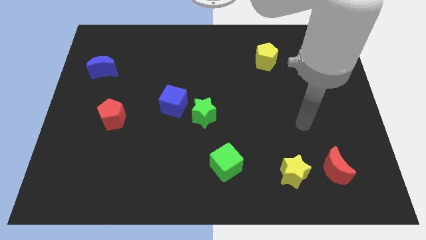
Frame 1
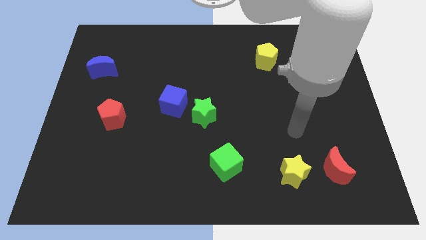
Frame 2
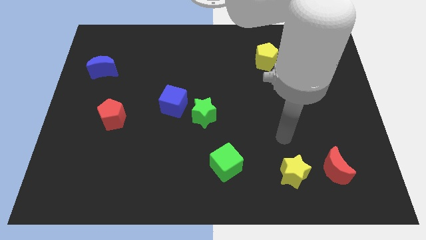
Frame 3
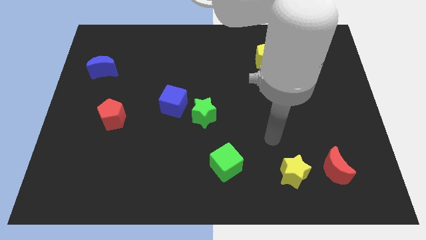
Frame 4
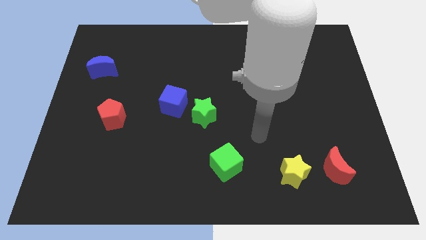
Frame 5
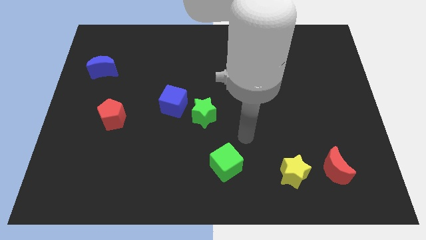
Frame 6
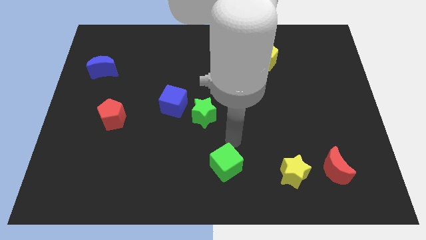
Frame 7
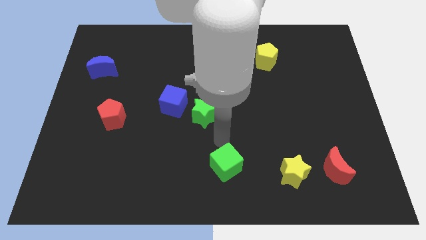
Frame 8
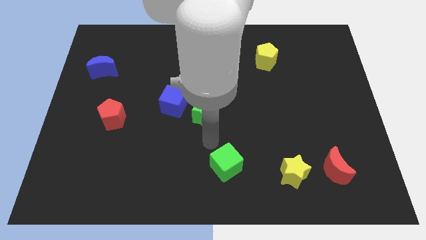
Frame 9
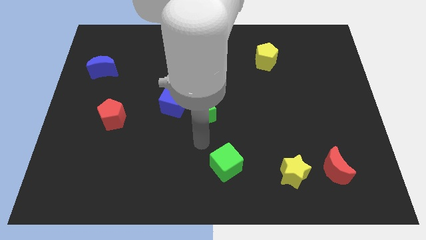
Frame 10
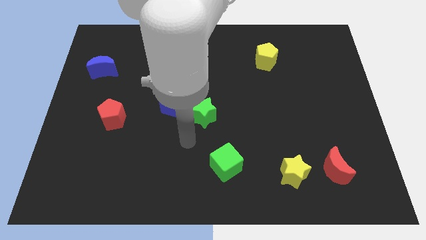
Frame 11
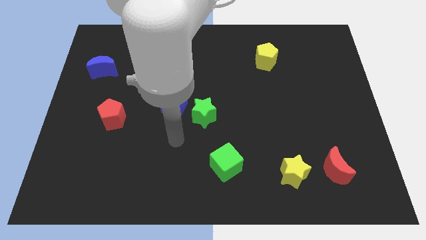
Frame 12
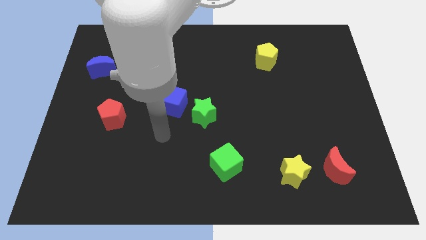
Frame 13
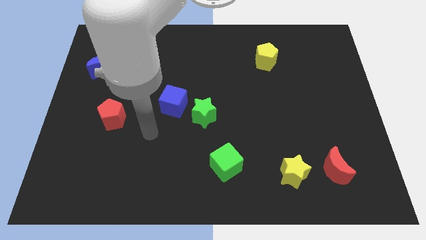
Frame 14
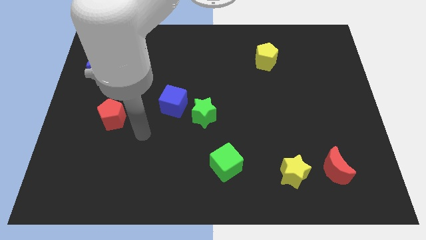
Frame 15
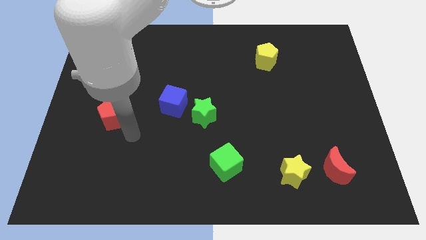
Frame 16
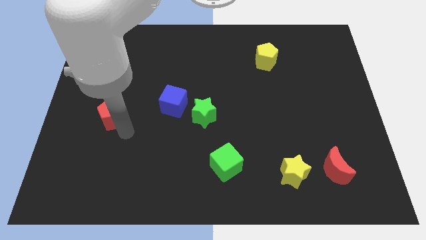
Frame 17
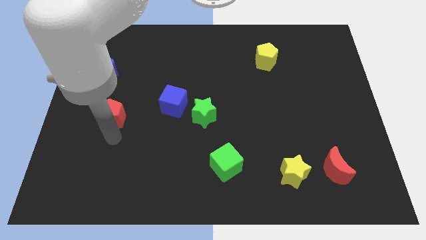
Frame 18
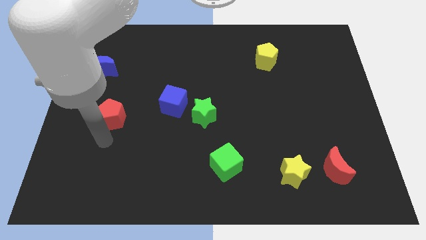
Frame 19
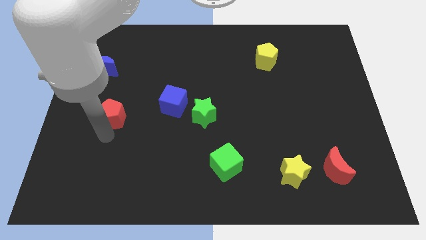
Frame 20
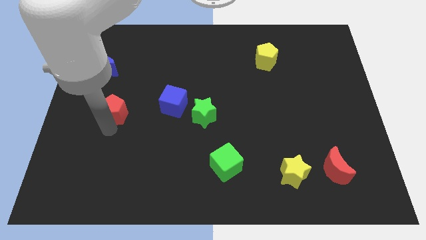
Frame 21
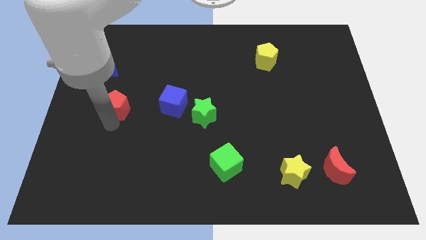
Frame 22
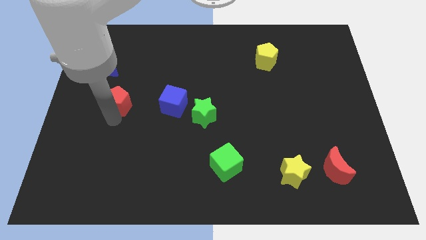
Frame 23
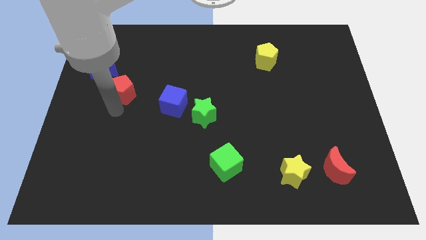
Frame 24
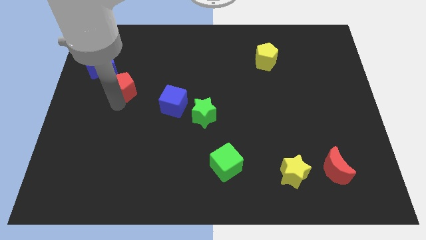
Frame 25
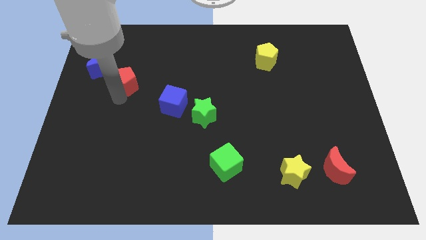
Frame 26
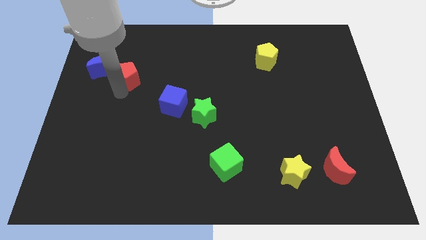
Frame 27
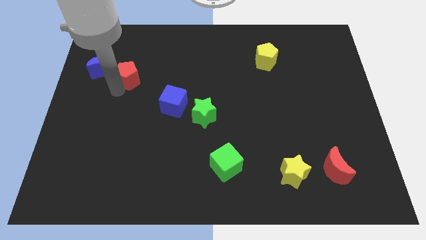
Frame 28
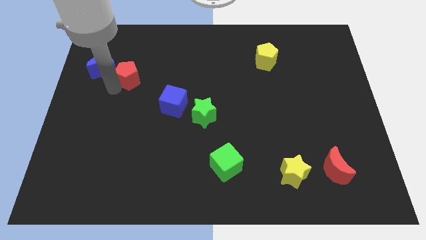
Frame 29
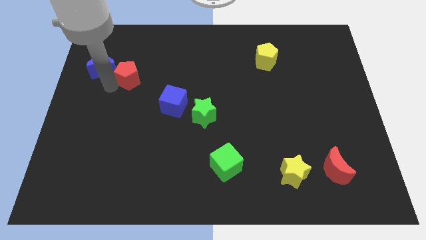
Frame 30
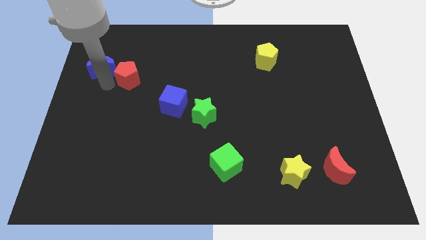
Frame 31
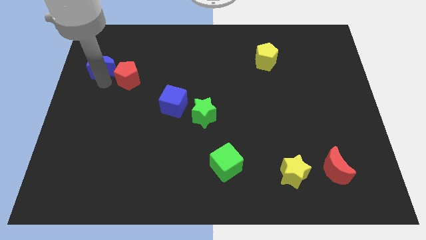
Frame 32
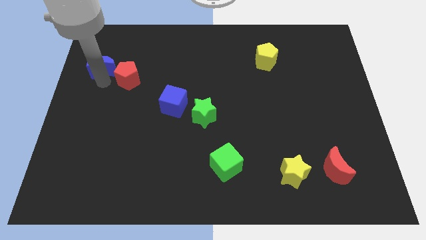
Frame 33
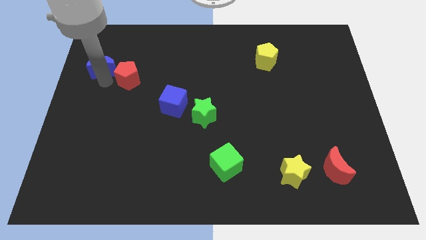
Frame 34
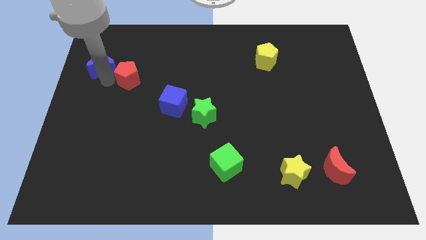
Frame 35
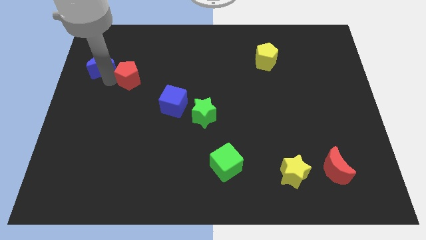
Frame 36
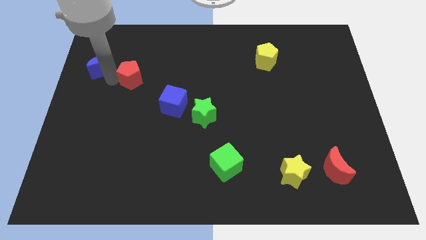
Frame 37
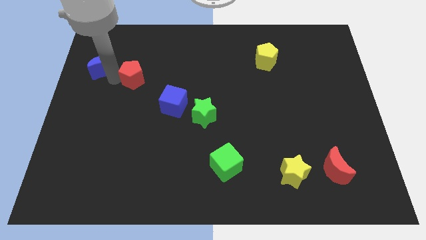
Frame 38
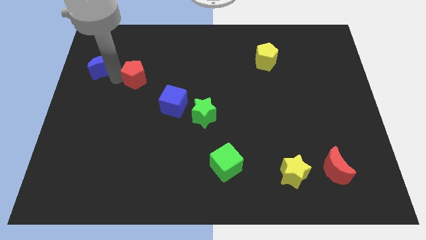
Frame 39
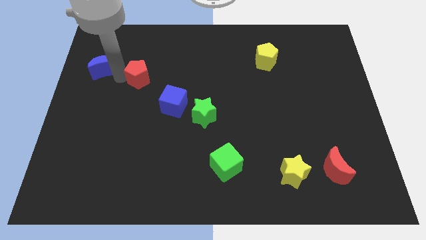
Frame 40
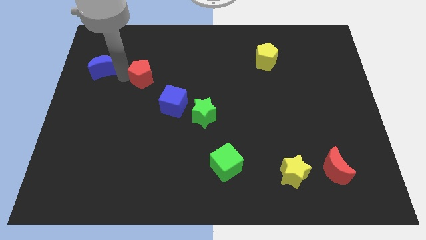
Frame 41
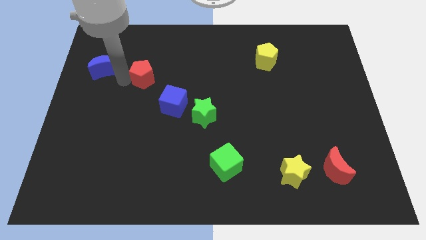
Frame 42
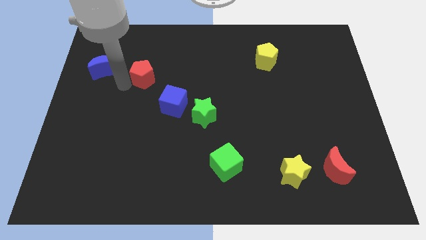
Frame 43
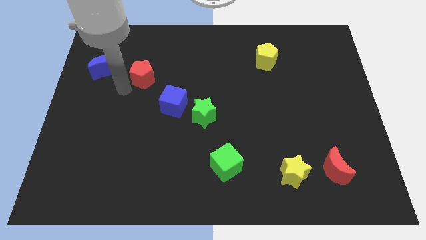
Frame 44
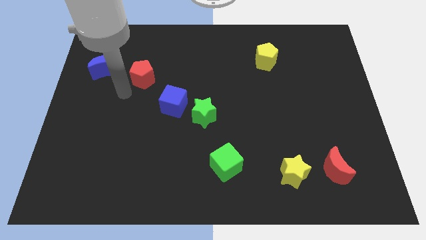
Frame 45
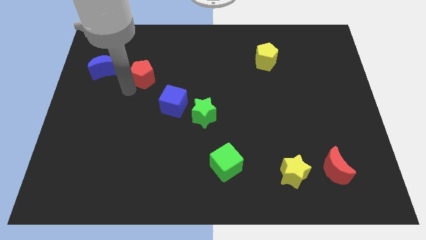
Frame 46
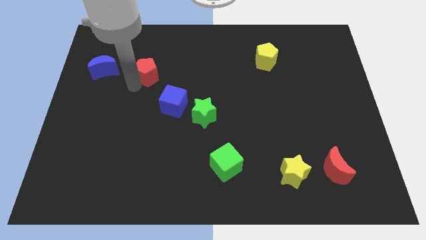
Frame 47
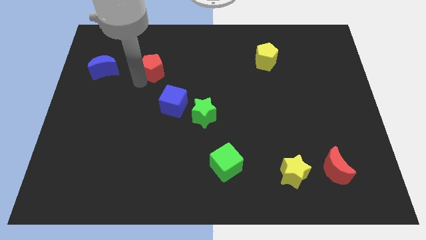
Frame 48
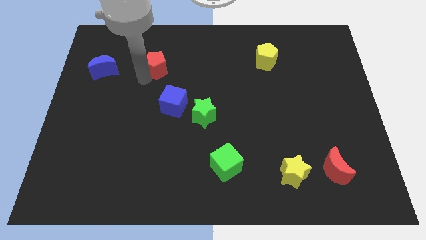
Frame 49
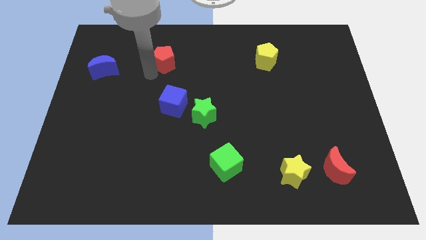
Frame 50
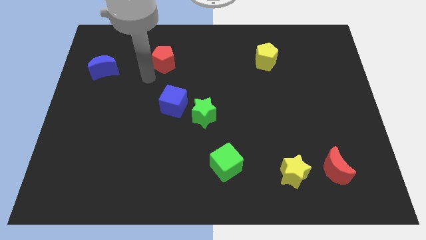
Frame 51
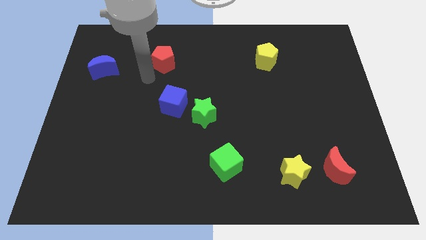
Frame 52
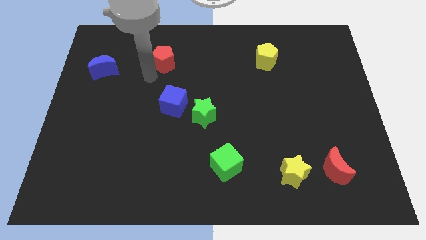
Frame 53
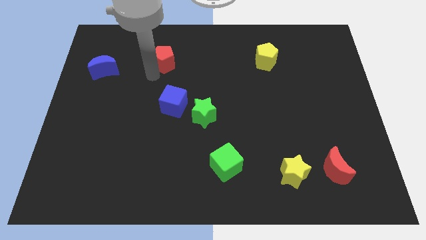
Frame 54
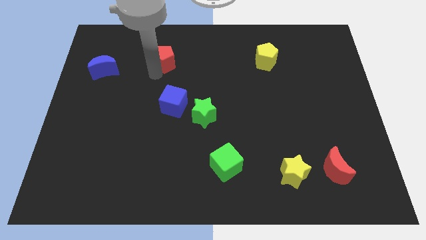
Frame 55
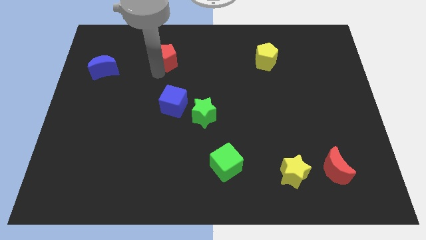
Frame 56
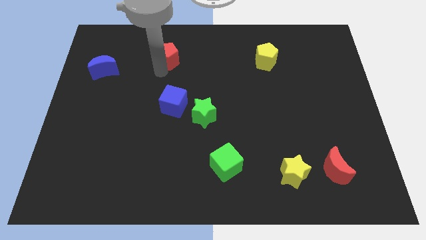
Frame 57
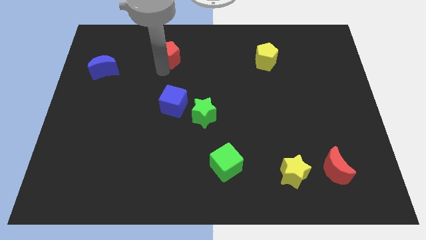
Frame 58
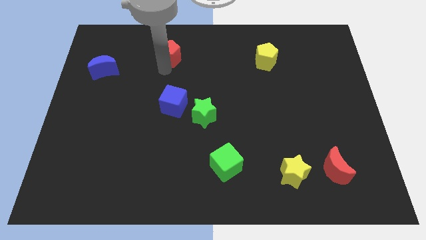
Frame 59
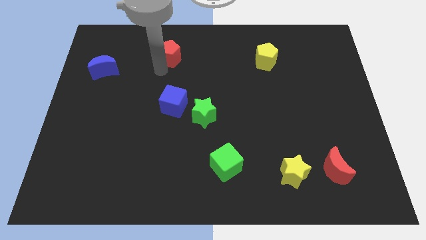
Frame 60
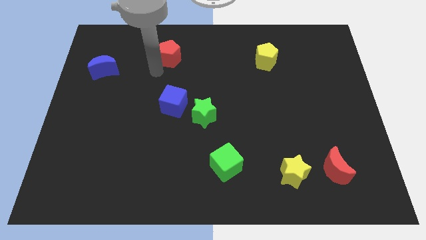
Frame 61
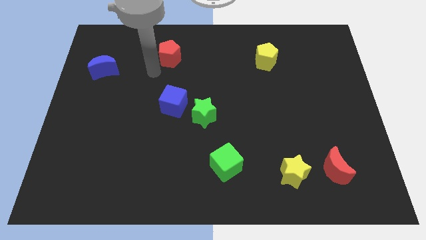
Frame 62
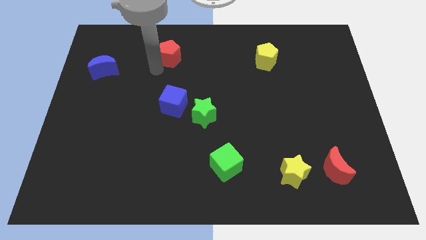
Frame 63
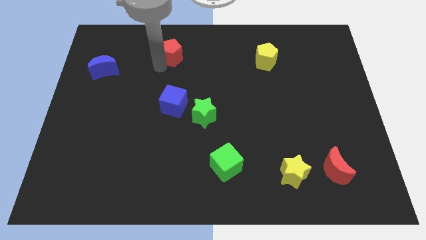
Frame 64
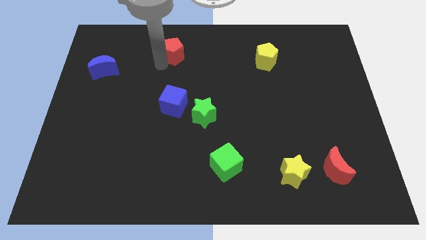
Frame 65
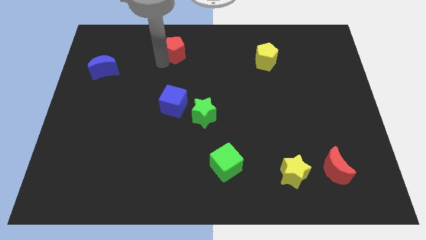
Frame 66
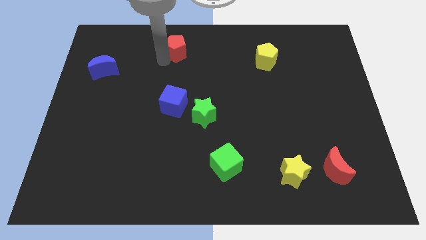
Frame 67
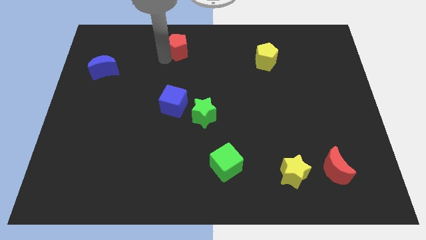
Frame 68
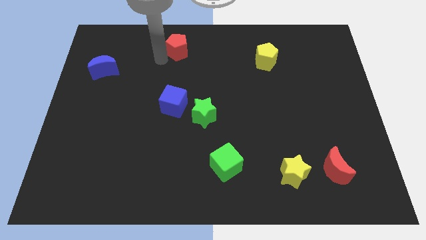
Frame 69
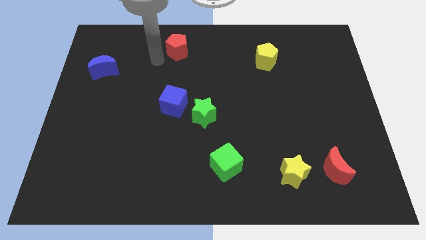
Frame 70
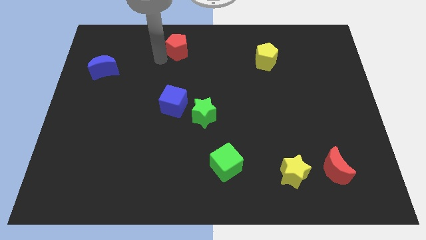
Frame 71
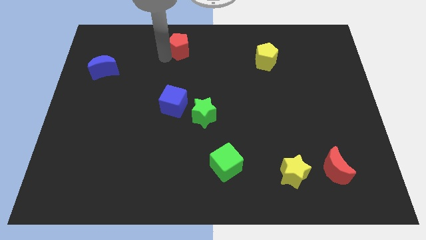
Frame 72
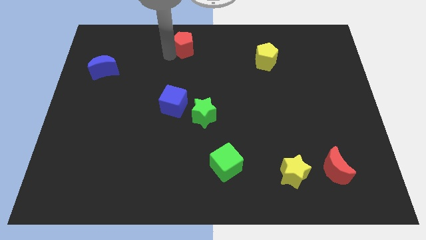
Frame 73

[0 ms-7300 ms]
move the red pentagon to the top side
